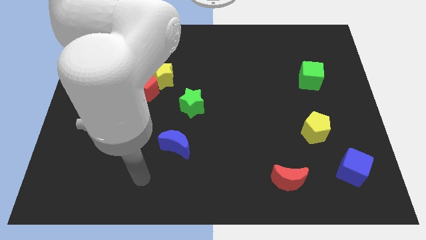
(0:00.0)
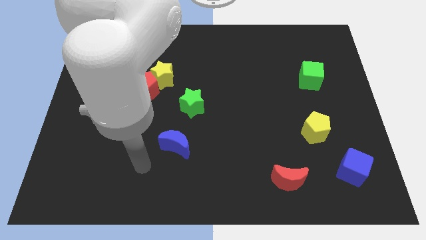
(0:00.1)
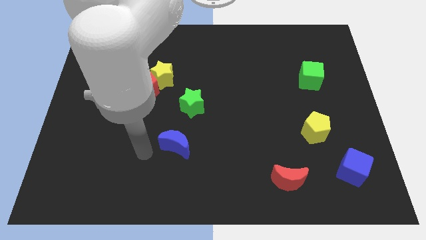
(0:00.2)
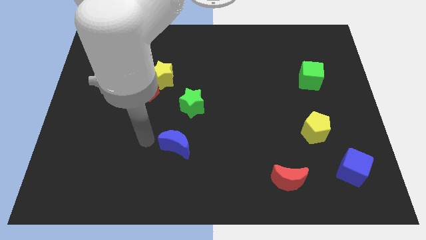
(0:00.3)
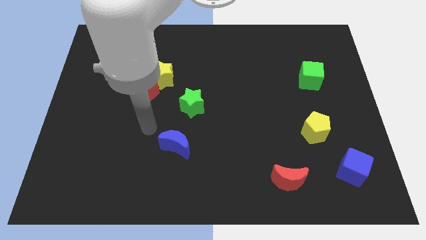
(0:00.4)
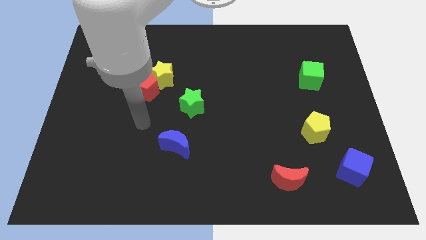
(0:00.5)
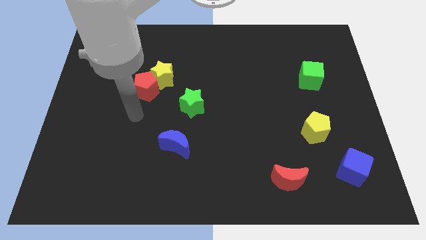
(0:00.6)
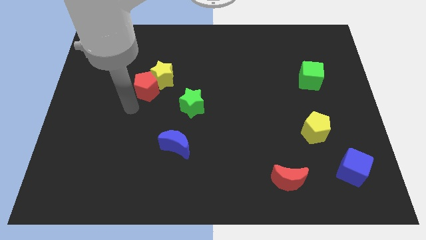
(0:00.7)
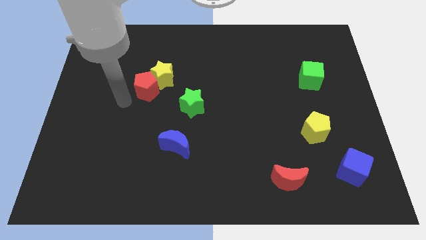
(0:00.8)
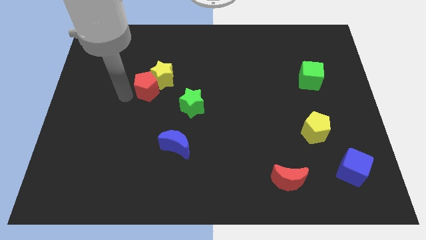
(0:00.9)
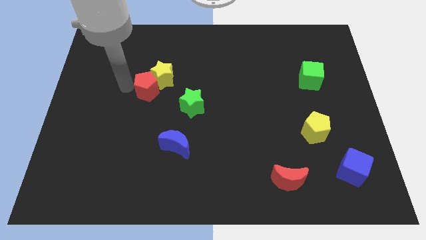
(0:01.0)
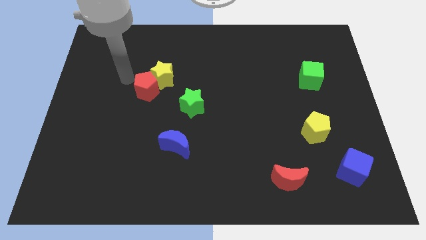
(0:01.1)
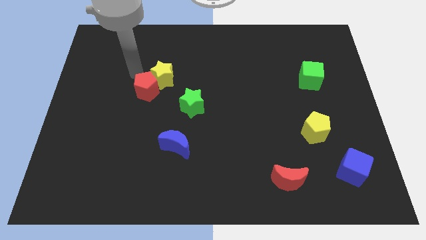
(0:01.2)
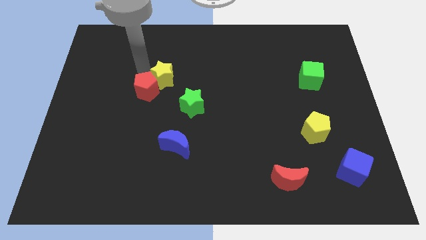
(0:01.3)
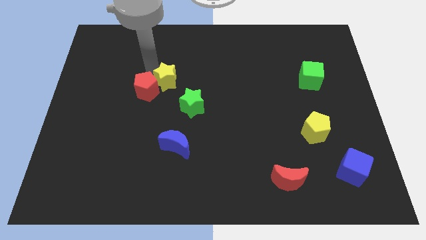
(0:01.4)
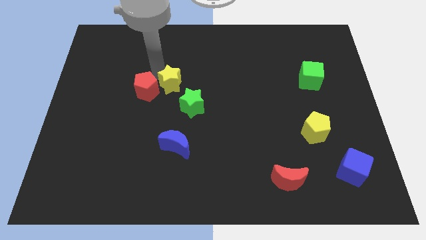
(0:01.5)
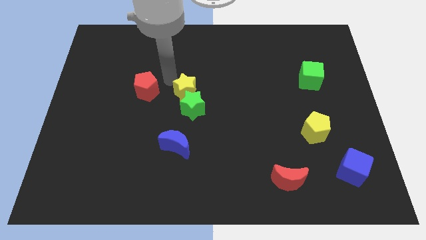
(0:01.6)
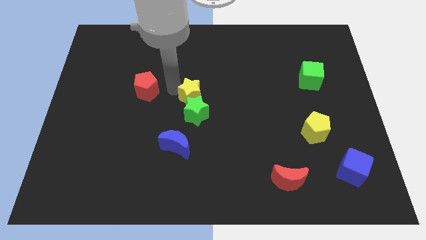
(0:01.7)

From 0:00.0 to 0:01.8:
separate the red pentagon from the yellow star

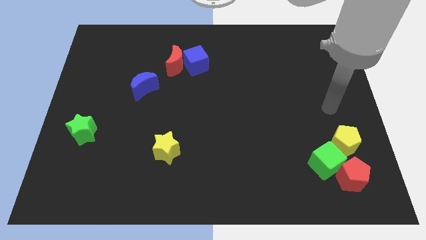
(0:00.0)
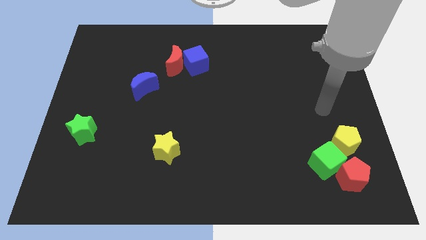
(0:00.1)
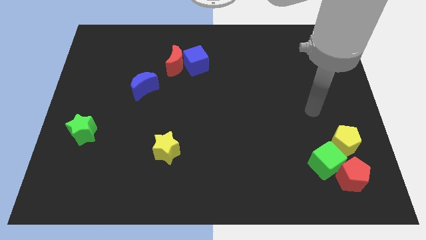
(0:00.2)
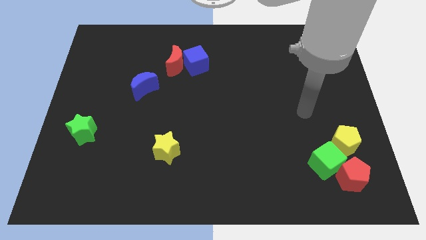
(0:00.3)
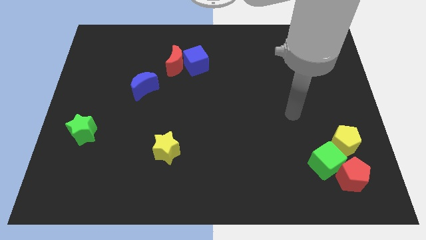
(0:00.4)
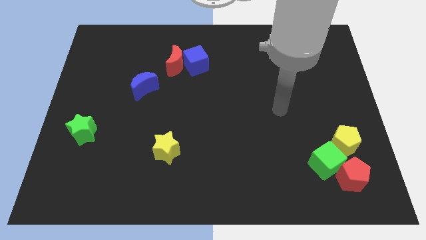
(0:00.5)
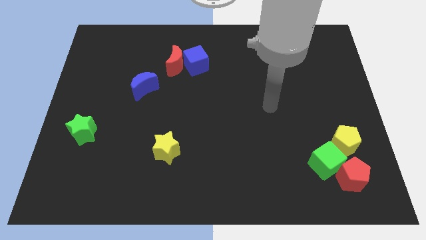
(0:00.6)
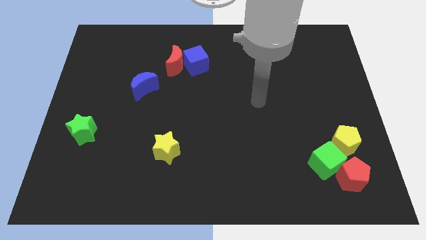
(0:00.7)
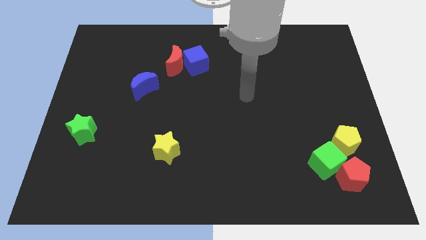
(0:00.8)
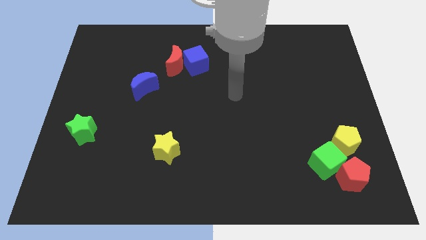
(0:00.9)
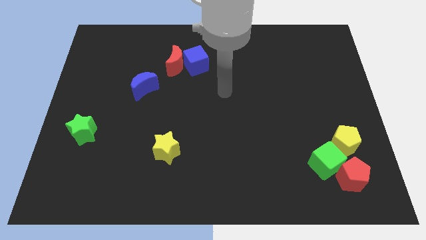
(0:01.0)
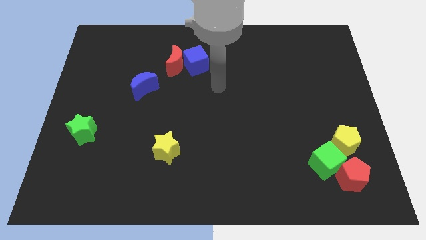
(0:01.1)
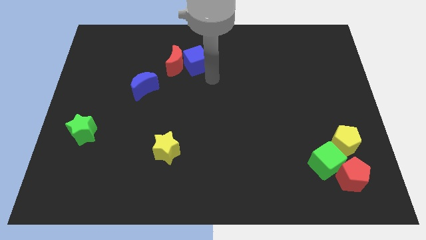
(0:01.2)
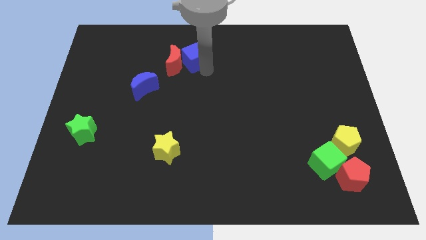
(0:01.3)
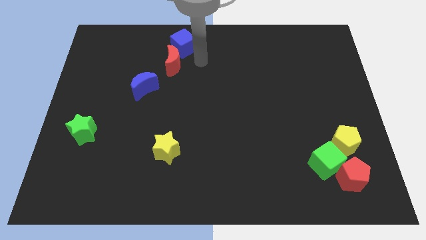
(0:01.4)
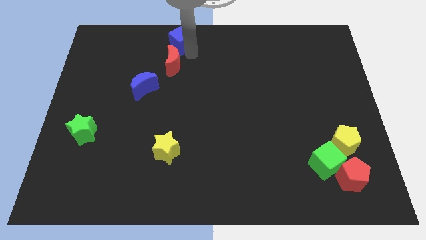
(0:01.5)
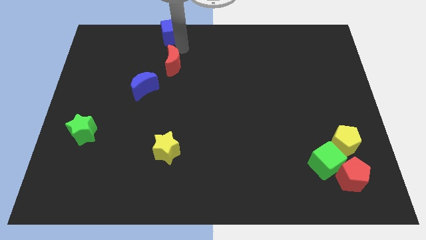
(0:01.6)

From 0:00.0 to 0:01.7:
move the red moon away from the blue cube

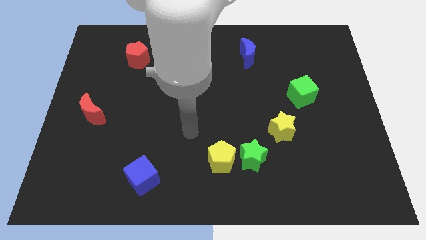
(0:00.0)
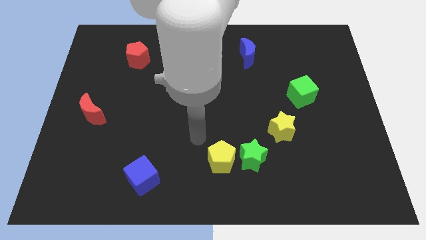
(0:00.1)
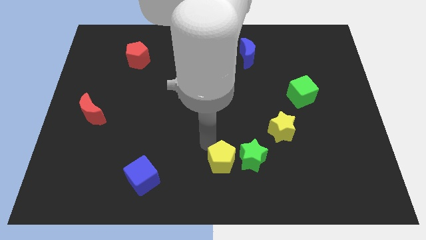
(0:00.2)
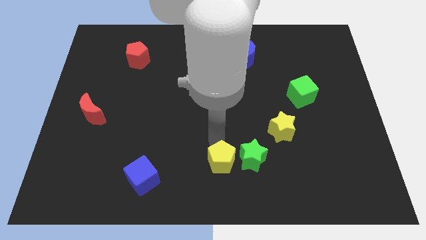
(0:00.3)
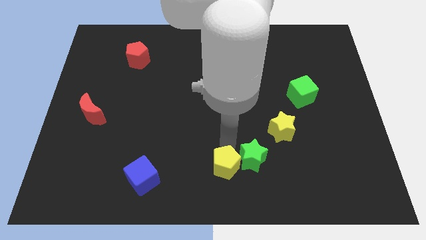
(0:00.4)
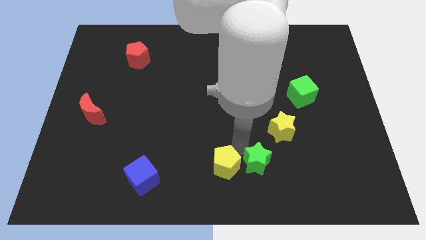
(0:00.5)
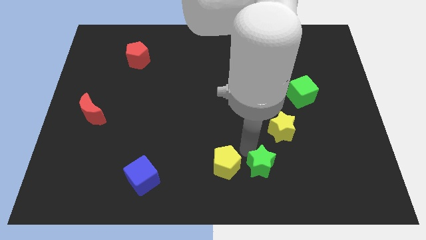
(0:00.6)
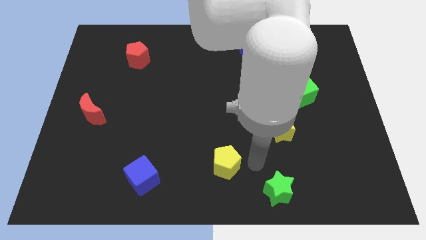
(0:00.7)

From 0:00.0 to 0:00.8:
pull the yellow pentagon apart from the green star

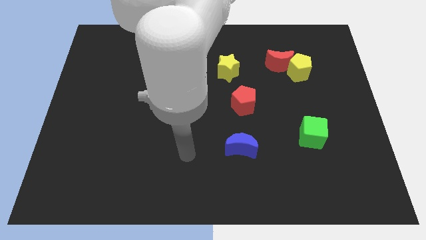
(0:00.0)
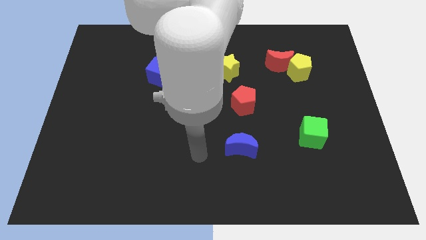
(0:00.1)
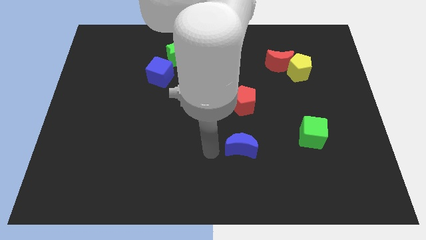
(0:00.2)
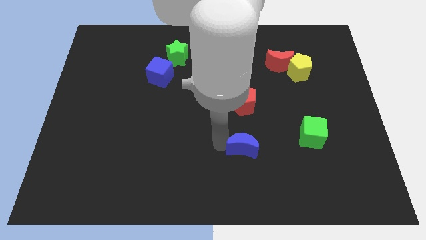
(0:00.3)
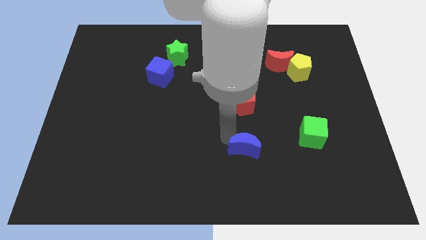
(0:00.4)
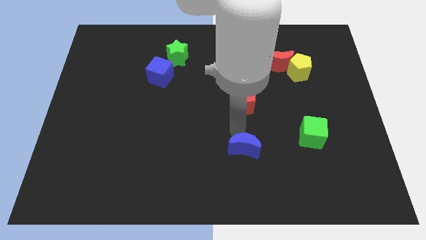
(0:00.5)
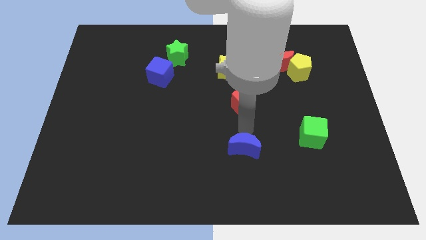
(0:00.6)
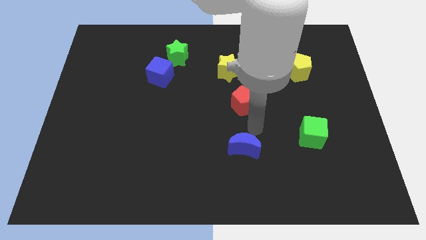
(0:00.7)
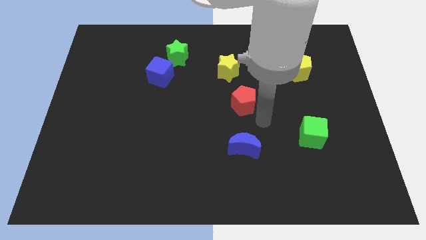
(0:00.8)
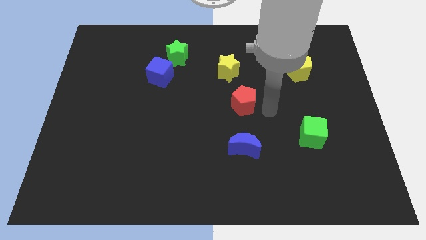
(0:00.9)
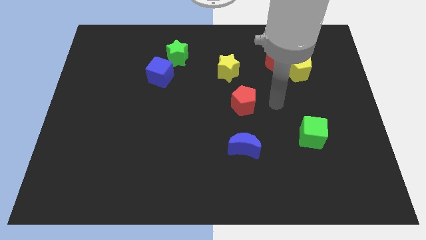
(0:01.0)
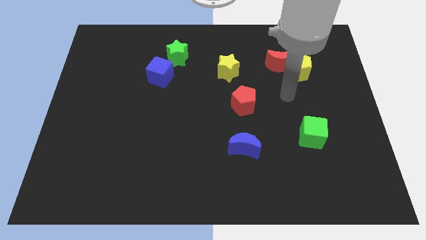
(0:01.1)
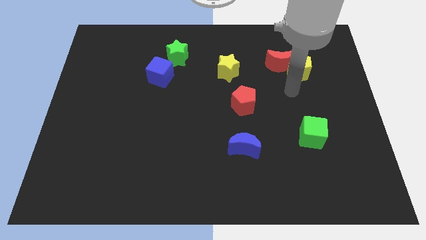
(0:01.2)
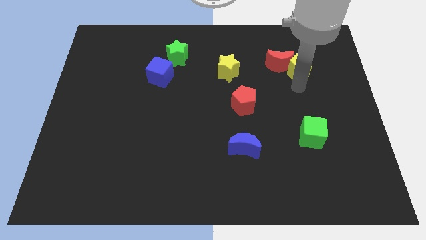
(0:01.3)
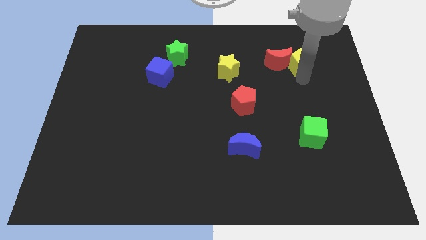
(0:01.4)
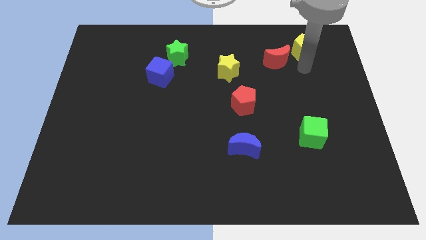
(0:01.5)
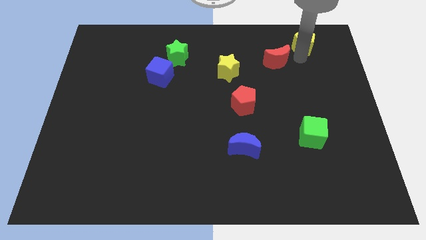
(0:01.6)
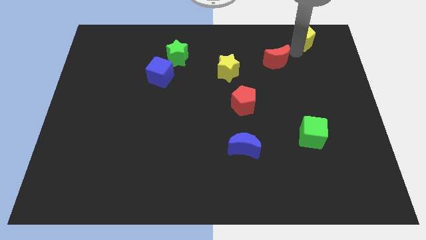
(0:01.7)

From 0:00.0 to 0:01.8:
separate the red moon from the yellow pentagon

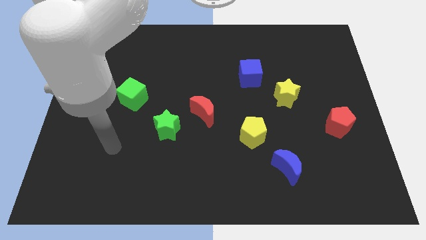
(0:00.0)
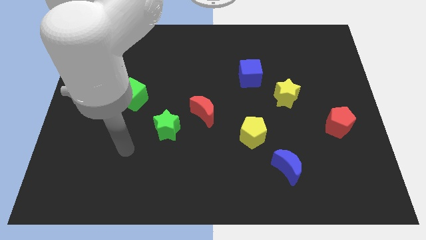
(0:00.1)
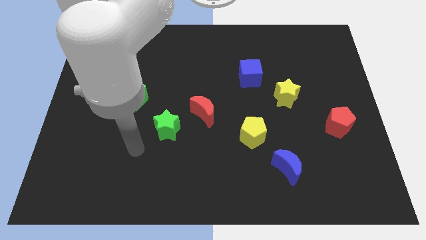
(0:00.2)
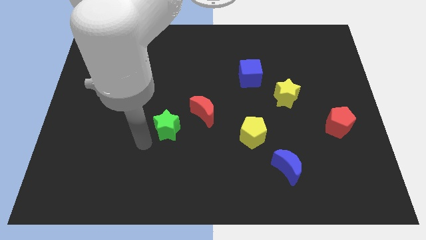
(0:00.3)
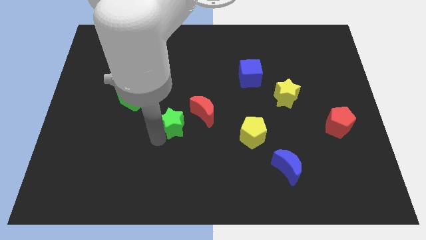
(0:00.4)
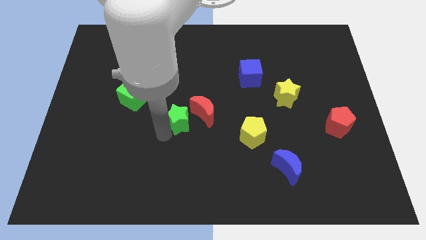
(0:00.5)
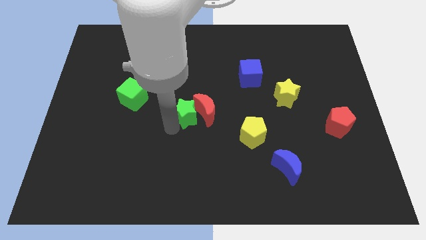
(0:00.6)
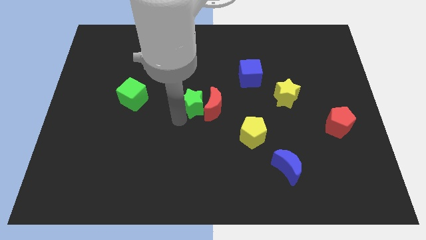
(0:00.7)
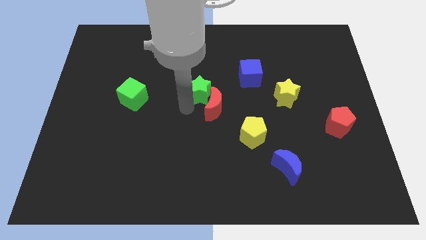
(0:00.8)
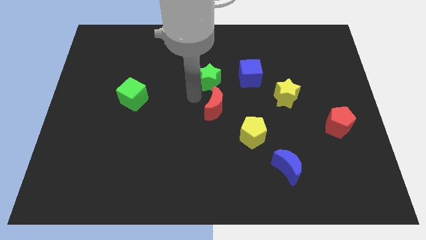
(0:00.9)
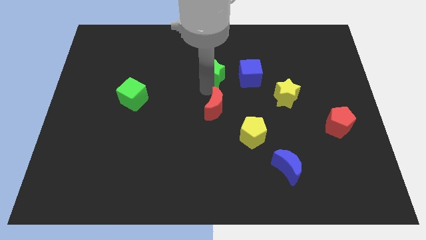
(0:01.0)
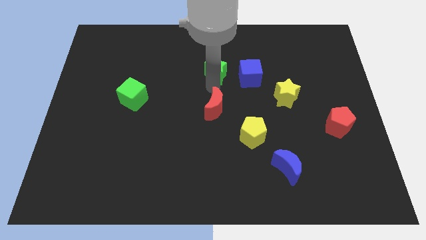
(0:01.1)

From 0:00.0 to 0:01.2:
pull the red moon apart from the green star

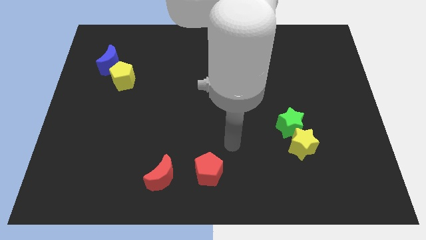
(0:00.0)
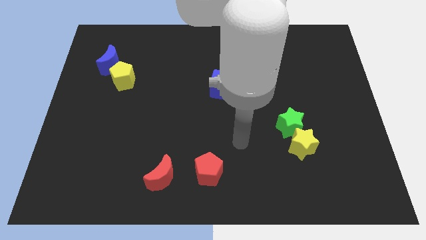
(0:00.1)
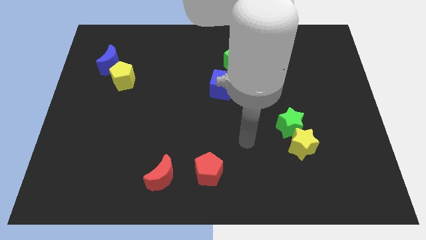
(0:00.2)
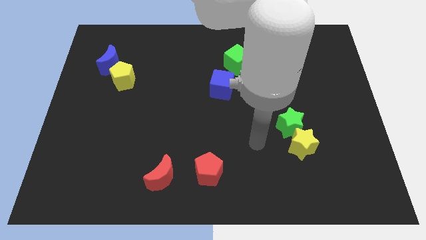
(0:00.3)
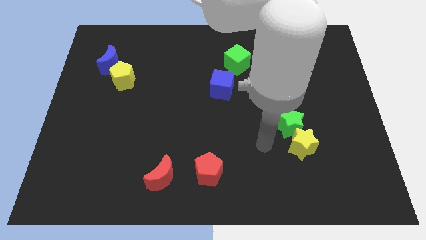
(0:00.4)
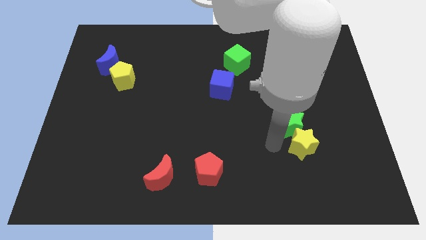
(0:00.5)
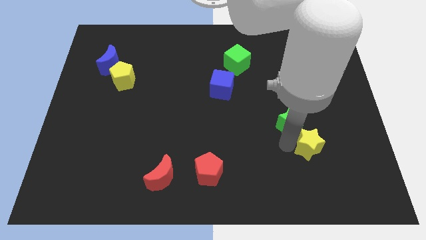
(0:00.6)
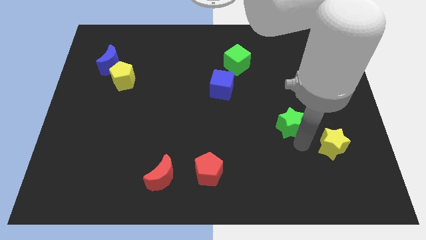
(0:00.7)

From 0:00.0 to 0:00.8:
separate the green star from the yellow star

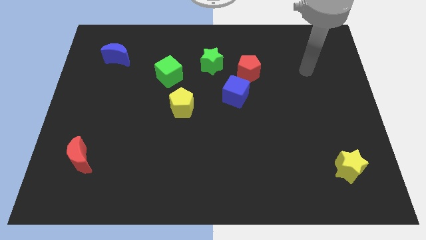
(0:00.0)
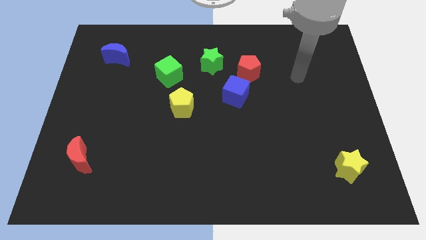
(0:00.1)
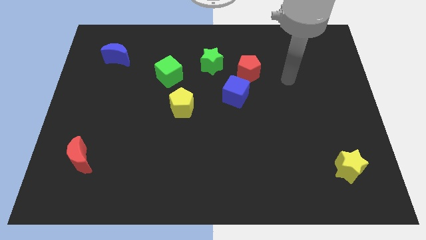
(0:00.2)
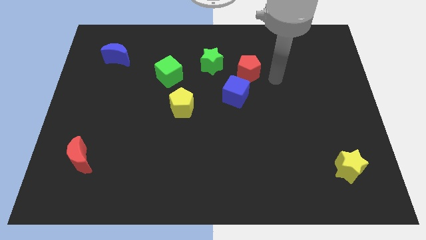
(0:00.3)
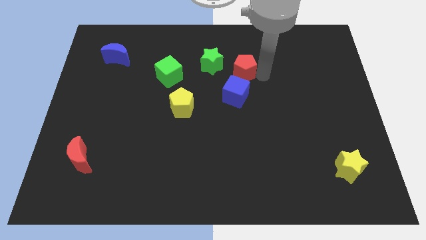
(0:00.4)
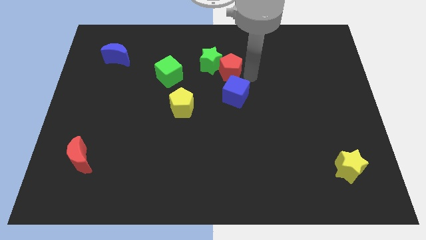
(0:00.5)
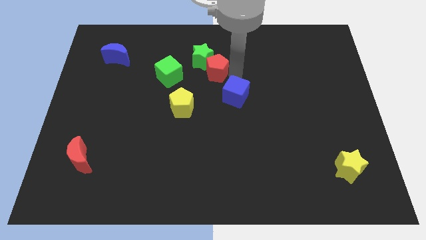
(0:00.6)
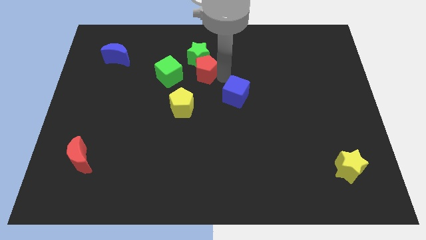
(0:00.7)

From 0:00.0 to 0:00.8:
pull the blue cube apart from the red pentagon

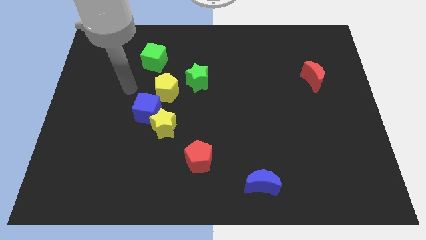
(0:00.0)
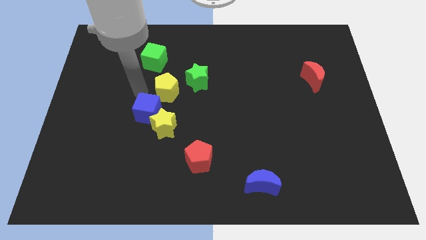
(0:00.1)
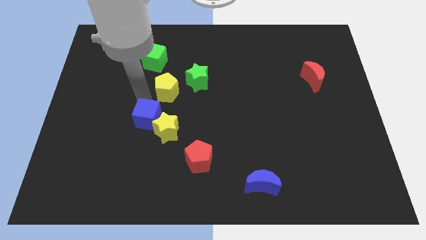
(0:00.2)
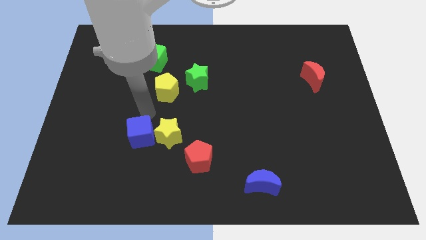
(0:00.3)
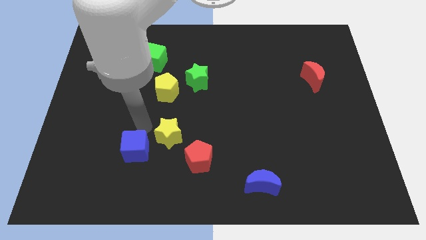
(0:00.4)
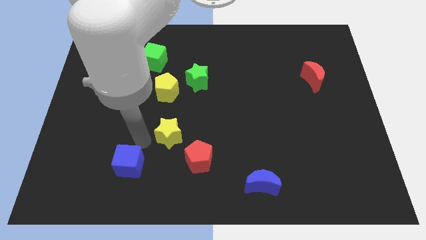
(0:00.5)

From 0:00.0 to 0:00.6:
separate the yellow star from the blue cube
